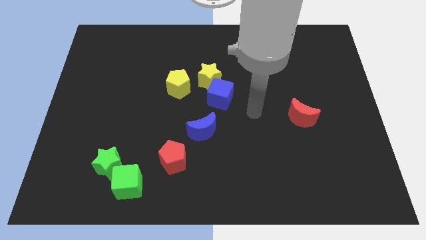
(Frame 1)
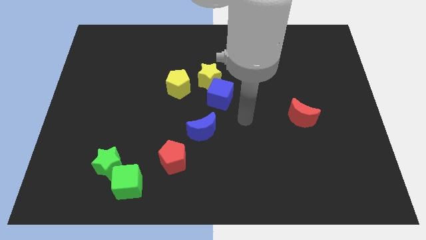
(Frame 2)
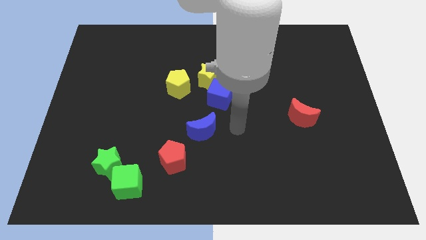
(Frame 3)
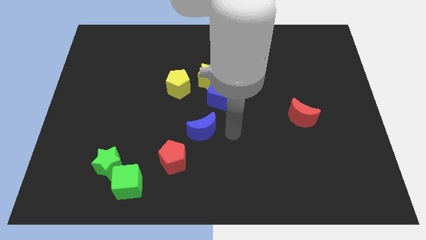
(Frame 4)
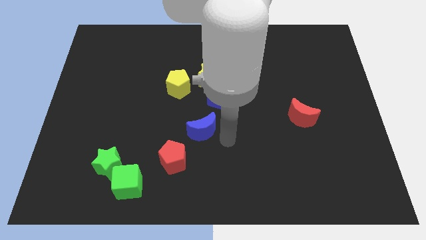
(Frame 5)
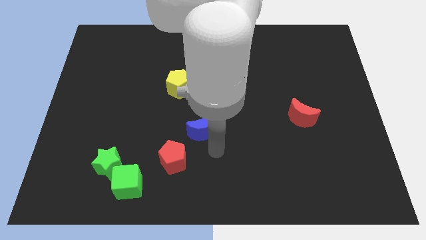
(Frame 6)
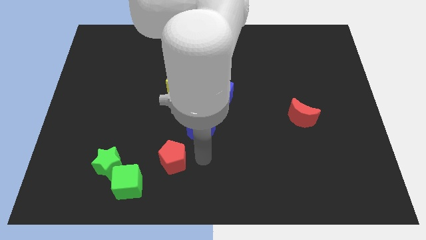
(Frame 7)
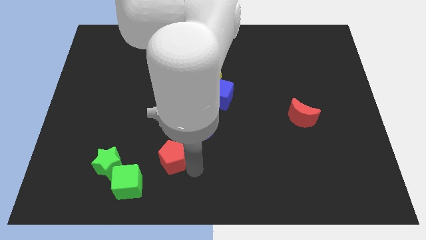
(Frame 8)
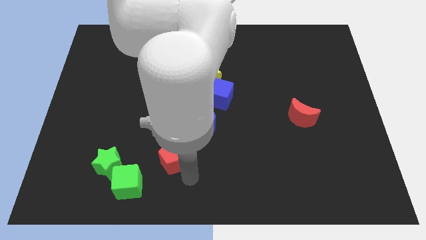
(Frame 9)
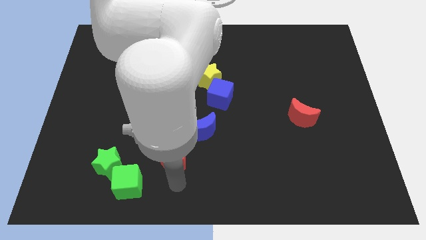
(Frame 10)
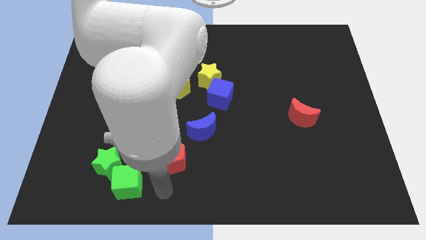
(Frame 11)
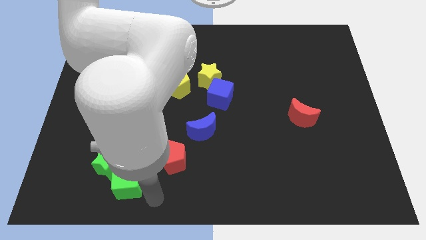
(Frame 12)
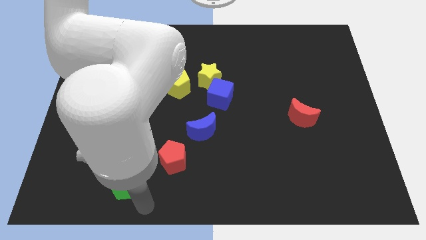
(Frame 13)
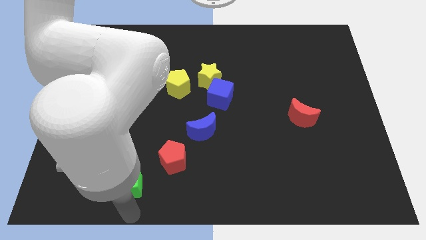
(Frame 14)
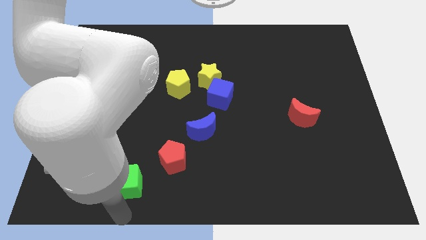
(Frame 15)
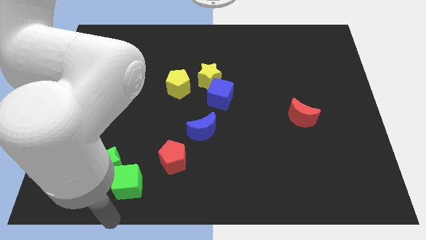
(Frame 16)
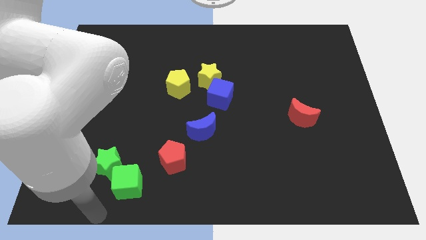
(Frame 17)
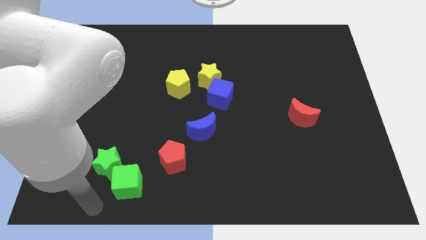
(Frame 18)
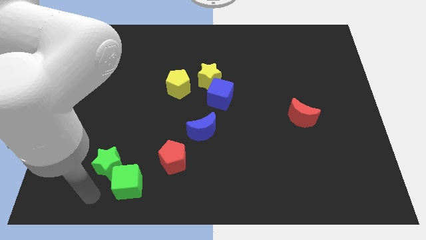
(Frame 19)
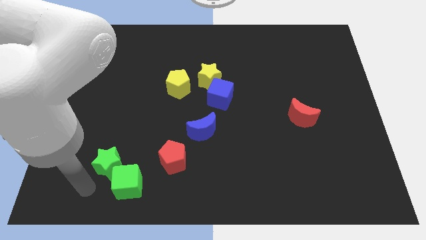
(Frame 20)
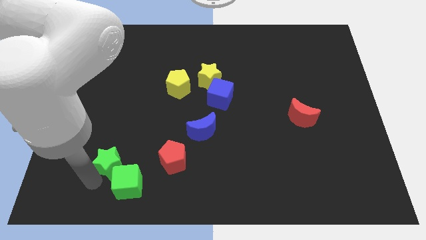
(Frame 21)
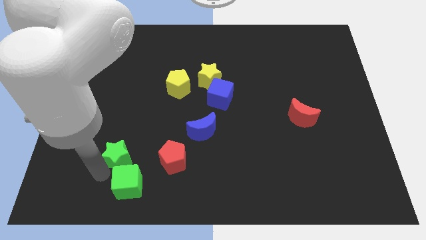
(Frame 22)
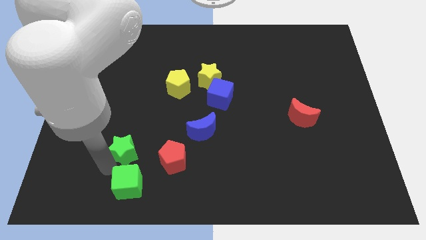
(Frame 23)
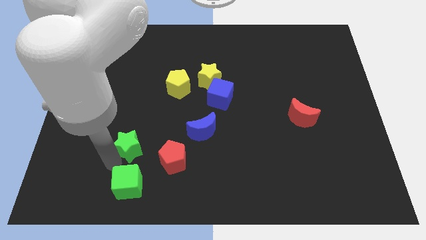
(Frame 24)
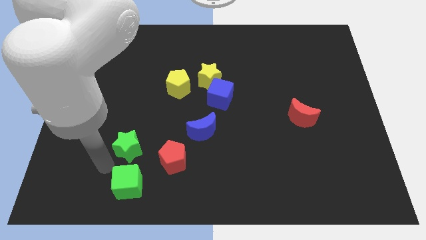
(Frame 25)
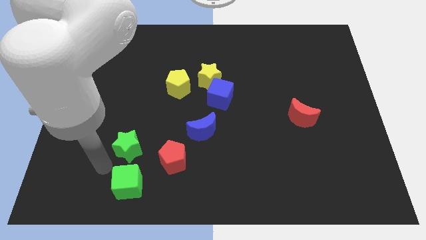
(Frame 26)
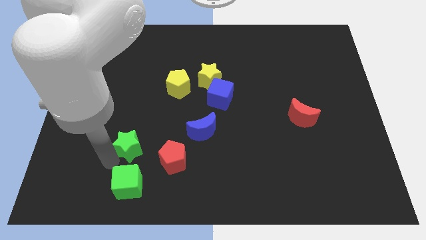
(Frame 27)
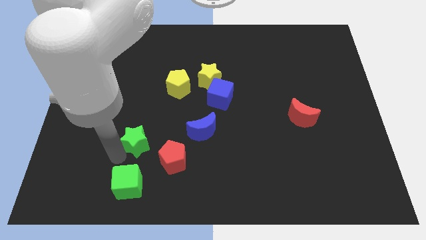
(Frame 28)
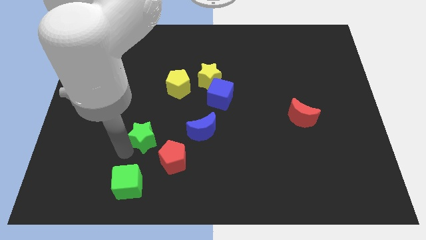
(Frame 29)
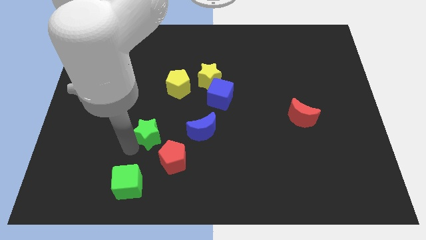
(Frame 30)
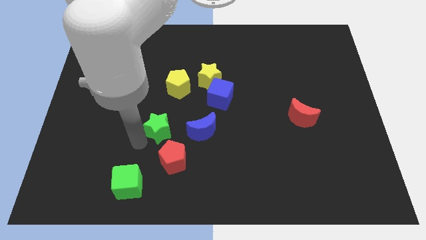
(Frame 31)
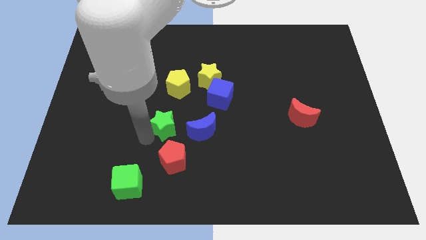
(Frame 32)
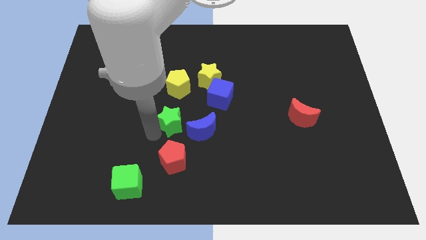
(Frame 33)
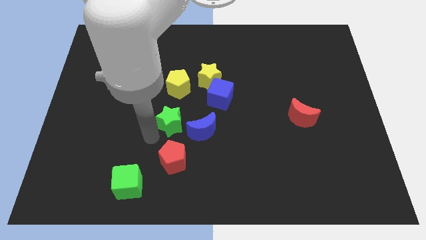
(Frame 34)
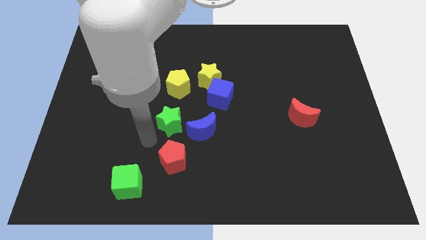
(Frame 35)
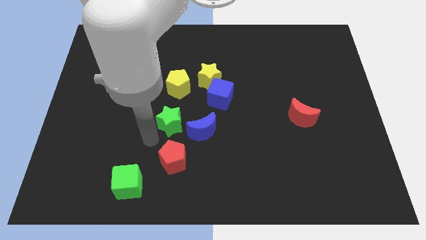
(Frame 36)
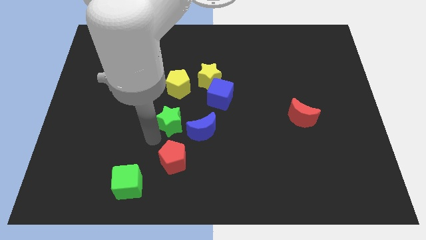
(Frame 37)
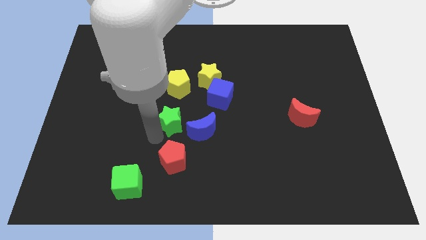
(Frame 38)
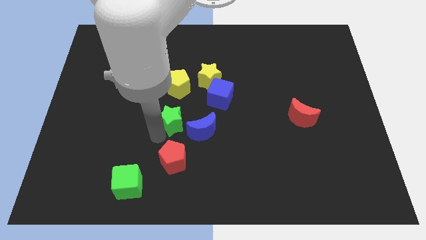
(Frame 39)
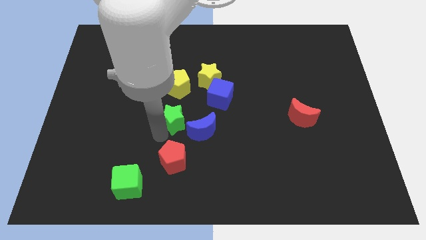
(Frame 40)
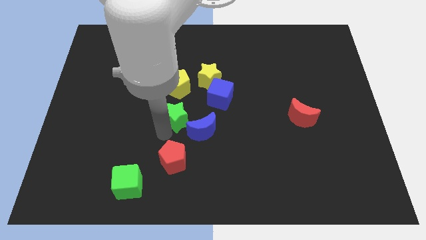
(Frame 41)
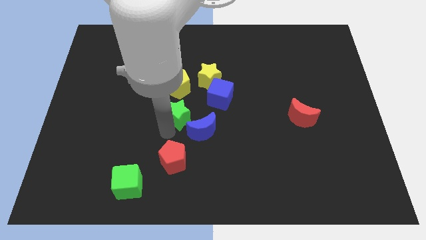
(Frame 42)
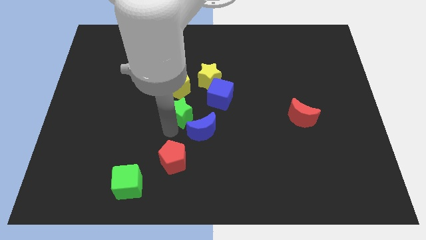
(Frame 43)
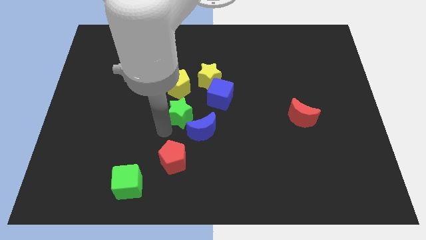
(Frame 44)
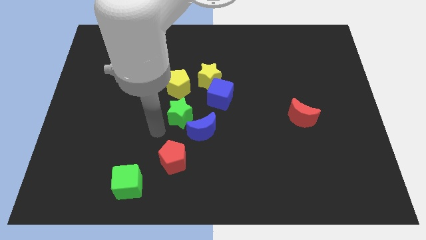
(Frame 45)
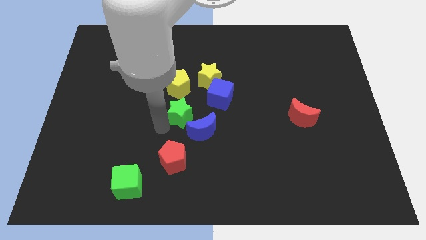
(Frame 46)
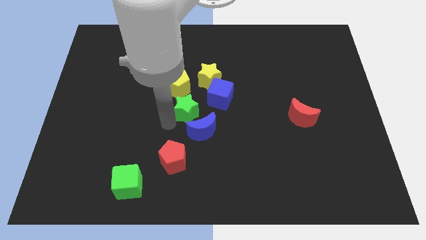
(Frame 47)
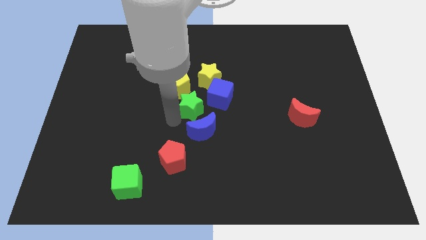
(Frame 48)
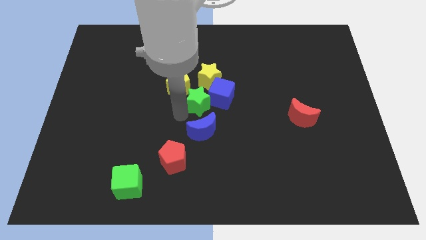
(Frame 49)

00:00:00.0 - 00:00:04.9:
move the green star to the blue cube

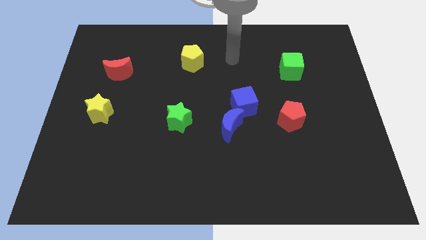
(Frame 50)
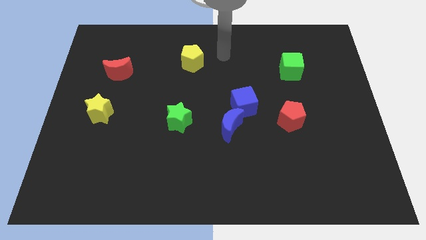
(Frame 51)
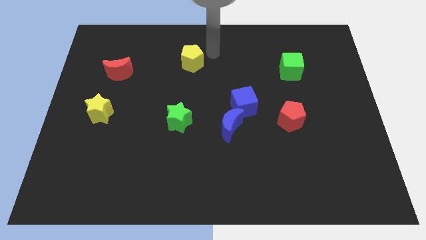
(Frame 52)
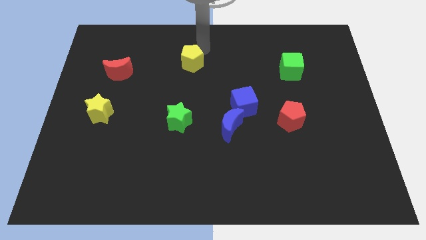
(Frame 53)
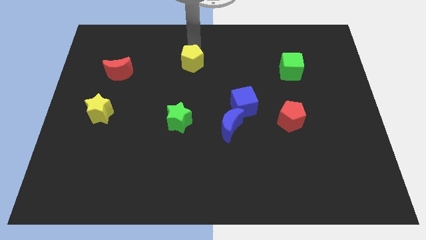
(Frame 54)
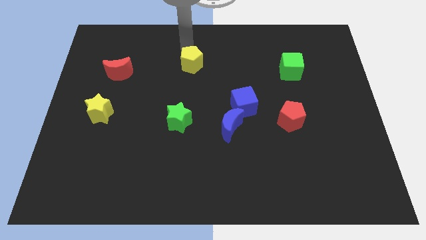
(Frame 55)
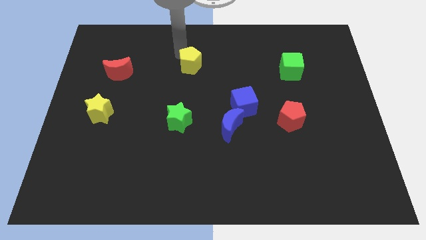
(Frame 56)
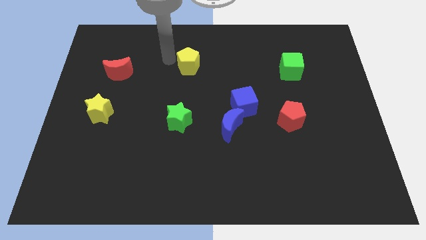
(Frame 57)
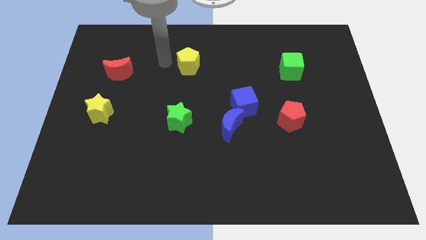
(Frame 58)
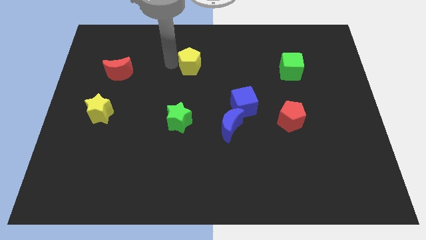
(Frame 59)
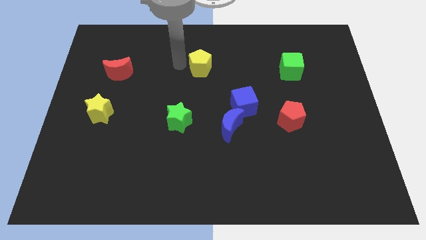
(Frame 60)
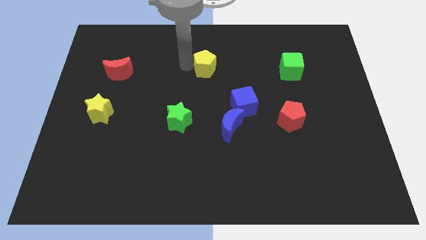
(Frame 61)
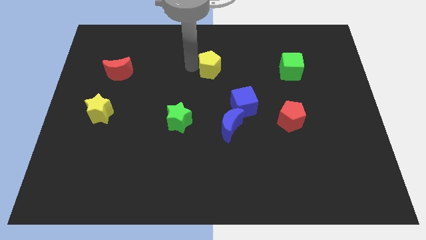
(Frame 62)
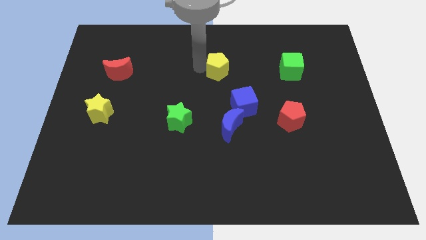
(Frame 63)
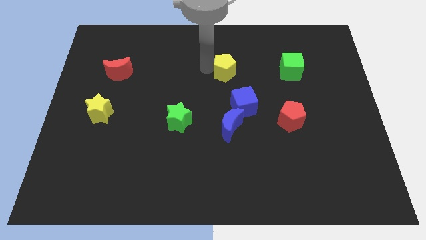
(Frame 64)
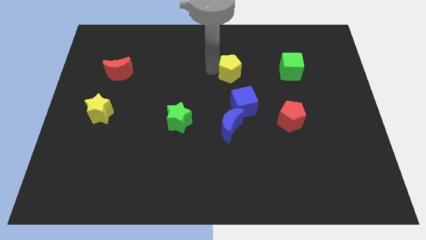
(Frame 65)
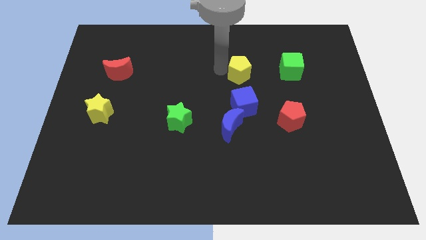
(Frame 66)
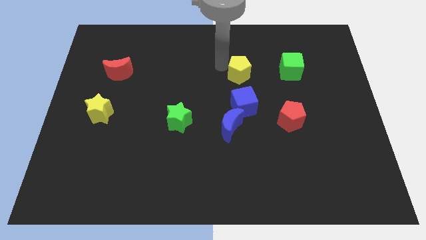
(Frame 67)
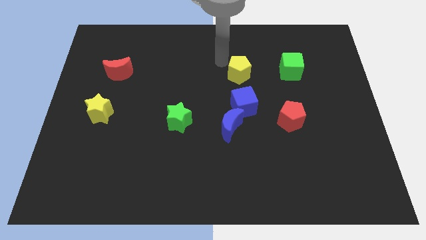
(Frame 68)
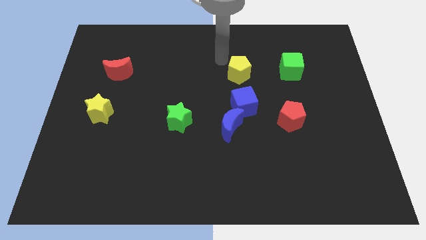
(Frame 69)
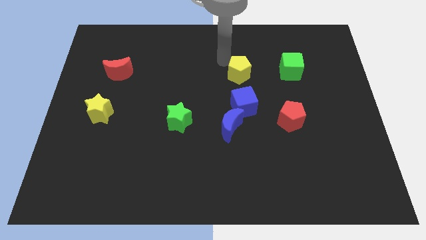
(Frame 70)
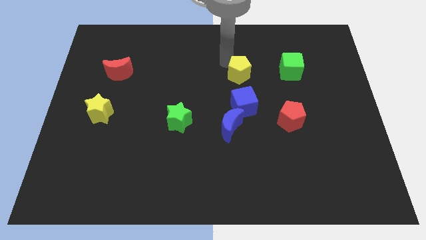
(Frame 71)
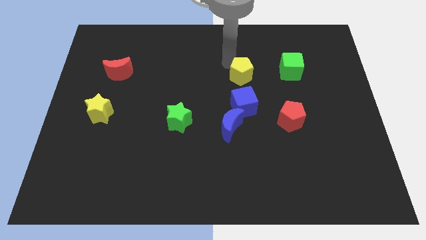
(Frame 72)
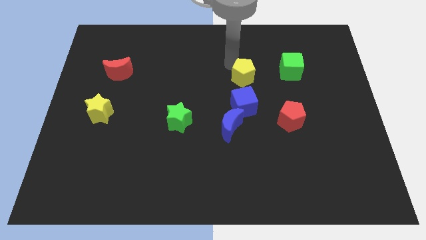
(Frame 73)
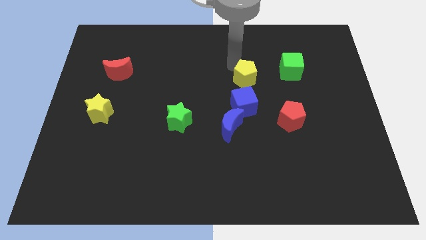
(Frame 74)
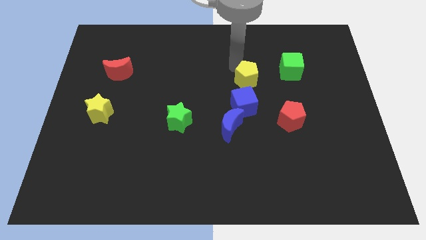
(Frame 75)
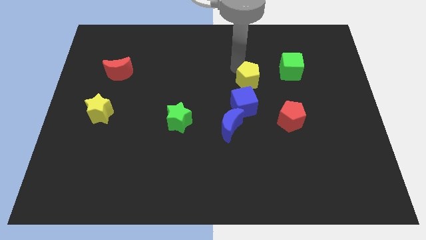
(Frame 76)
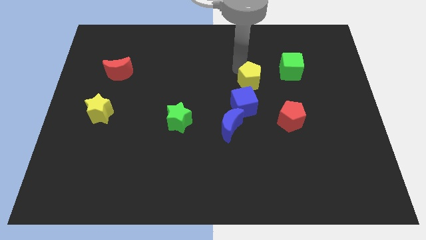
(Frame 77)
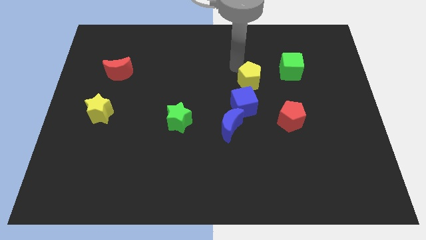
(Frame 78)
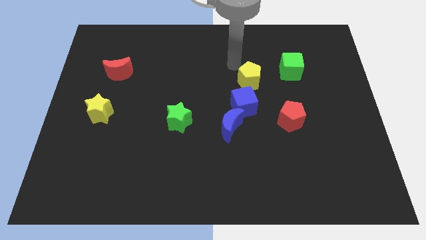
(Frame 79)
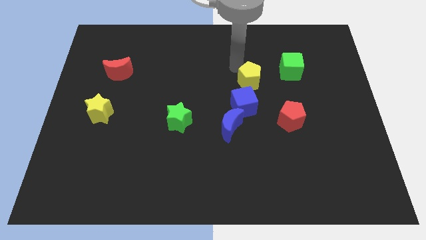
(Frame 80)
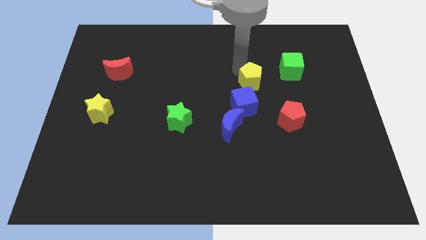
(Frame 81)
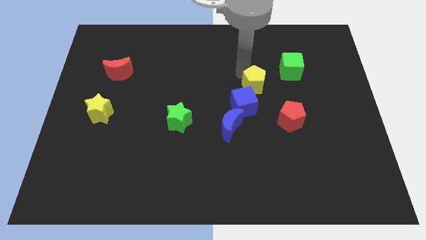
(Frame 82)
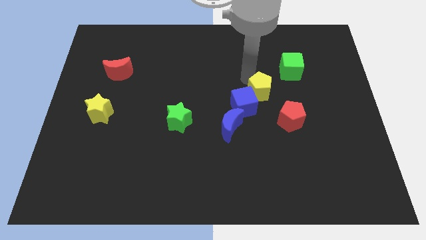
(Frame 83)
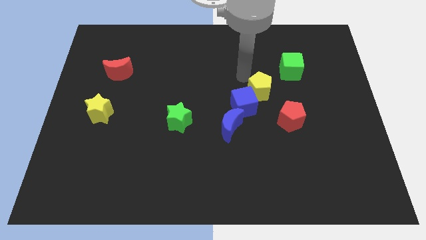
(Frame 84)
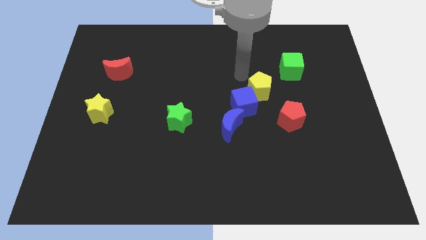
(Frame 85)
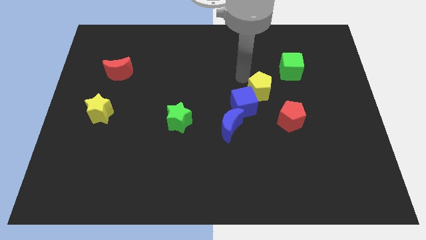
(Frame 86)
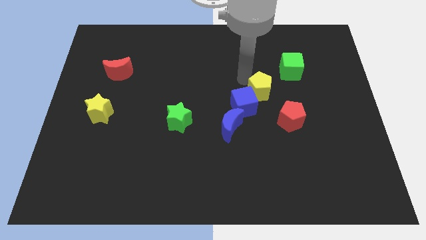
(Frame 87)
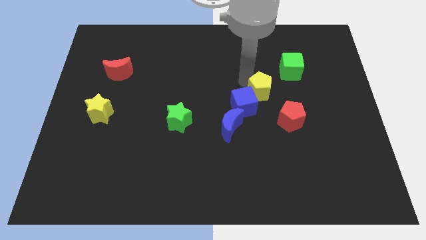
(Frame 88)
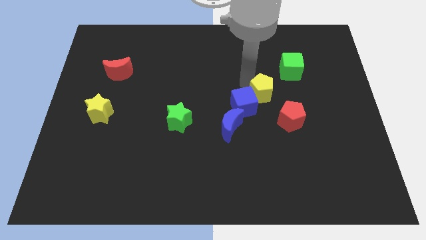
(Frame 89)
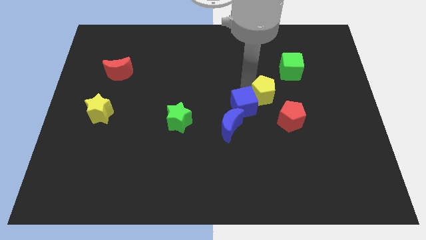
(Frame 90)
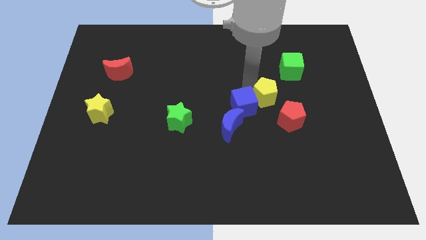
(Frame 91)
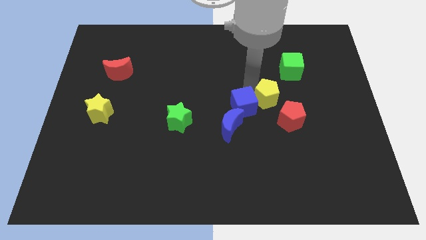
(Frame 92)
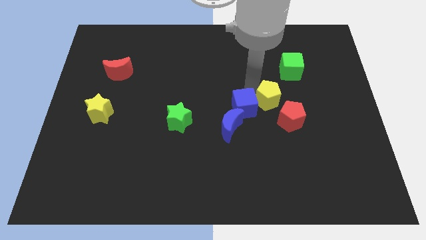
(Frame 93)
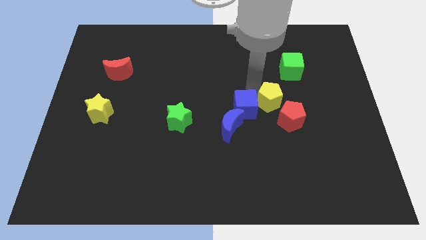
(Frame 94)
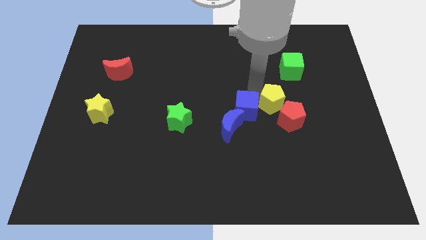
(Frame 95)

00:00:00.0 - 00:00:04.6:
put the yellow pentagon towards the red pentagon
